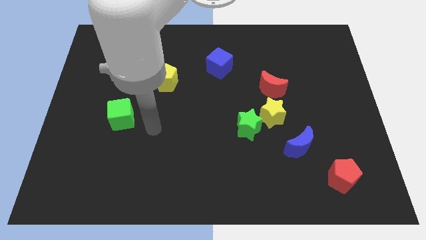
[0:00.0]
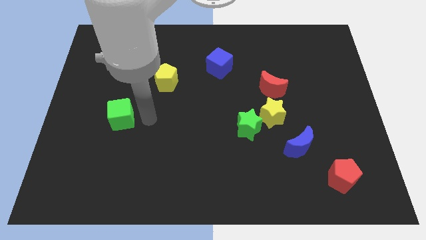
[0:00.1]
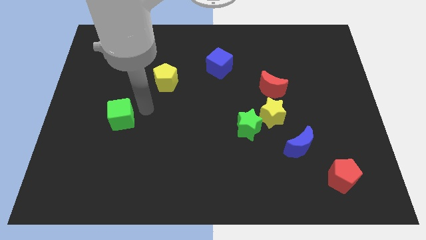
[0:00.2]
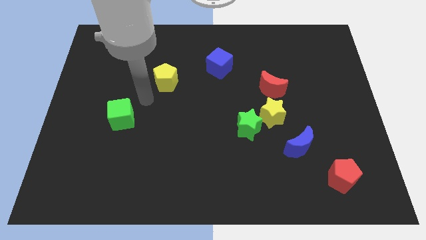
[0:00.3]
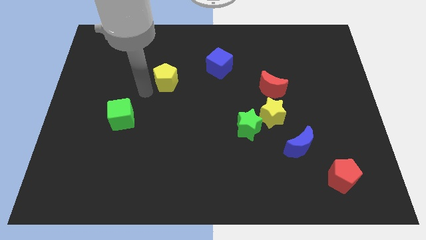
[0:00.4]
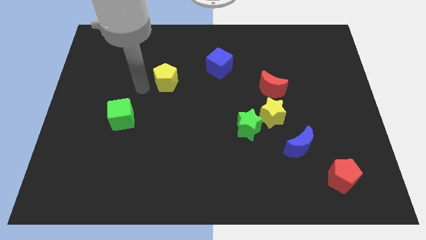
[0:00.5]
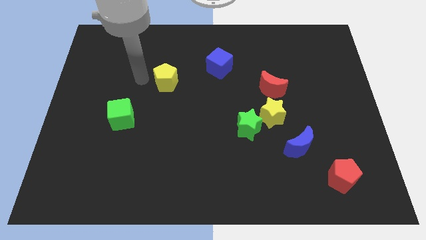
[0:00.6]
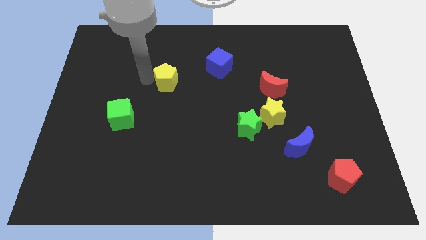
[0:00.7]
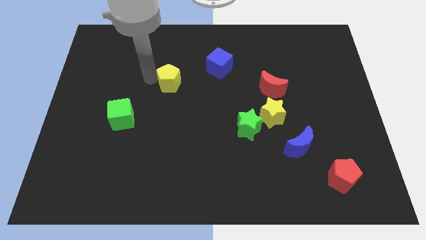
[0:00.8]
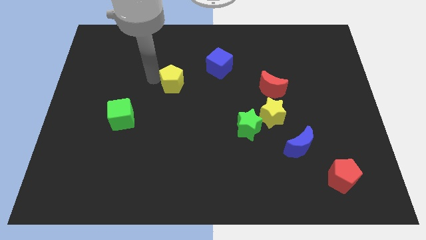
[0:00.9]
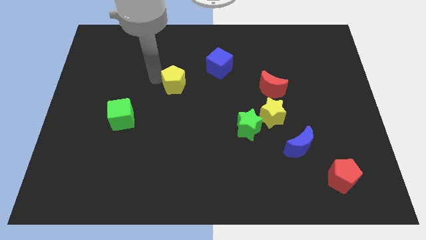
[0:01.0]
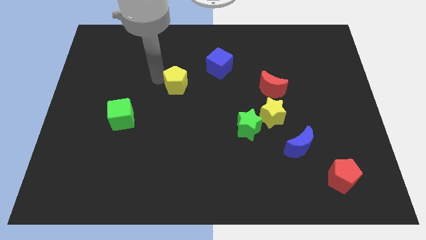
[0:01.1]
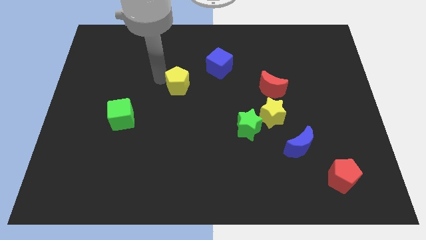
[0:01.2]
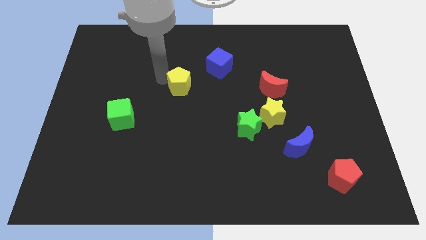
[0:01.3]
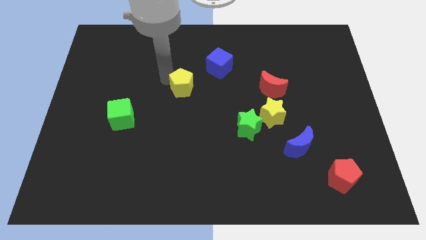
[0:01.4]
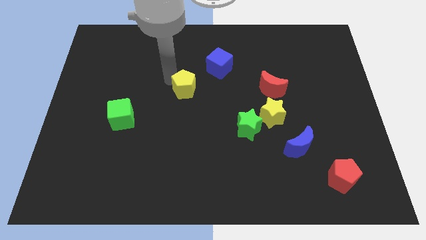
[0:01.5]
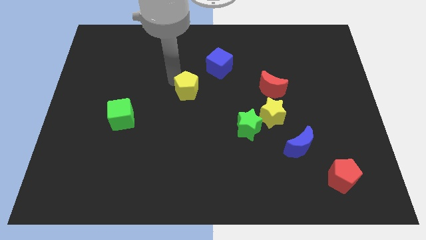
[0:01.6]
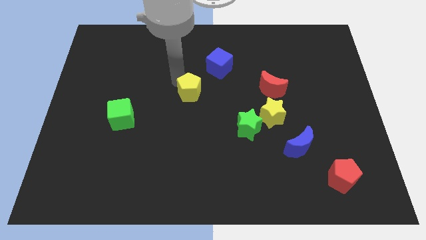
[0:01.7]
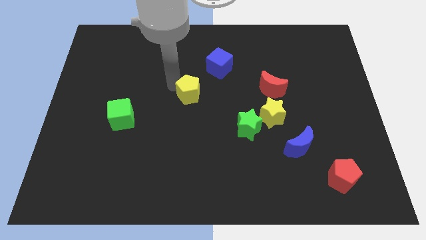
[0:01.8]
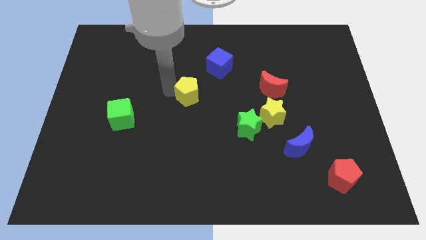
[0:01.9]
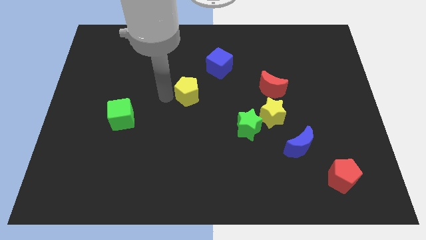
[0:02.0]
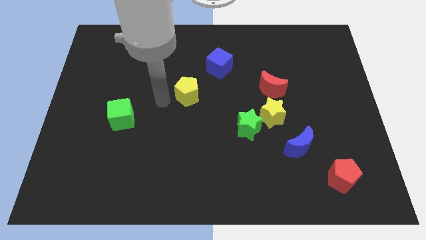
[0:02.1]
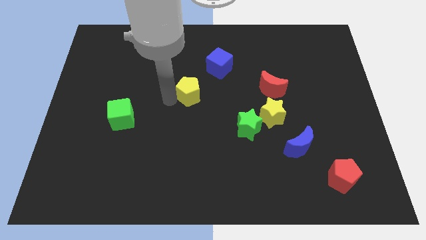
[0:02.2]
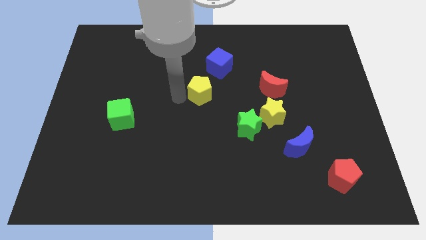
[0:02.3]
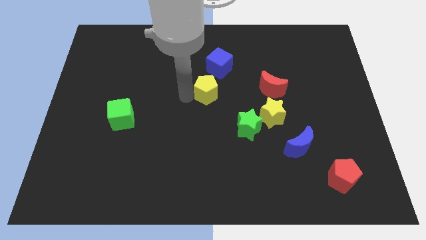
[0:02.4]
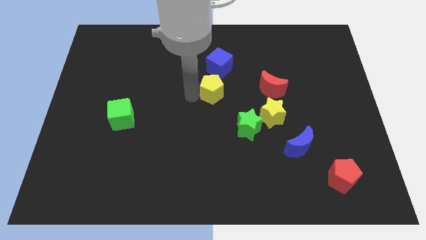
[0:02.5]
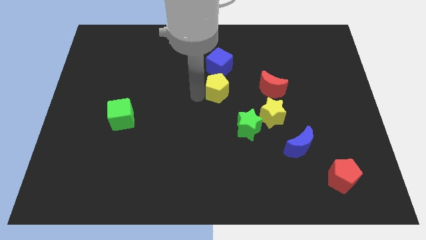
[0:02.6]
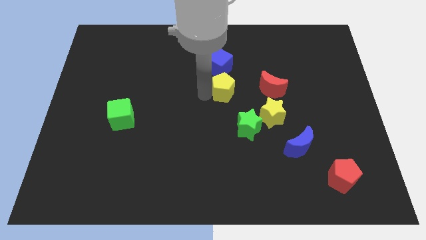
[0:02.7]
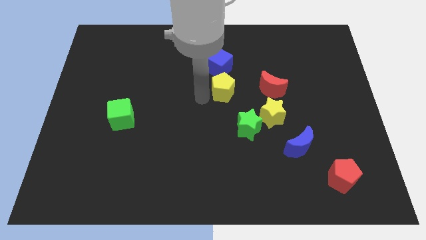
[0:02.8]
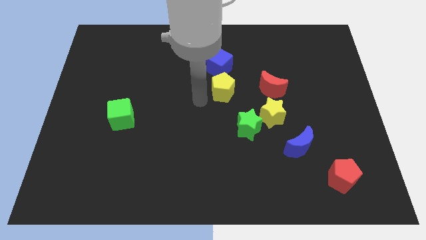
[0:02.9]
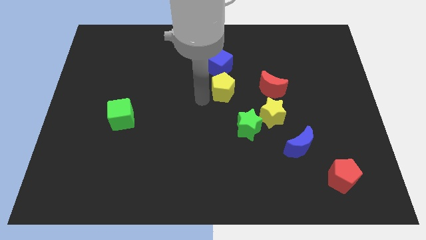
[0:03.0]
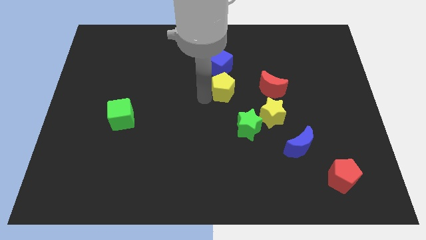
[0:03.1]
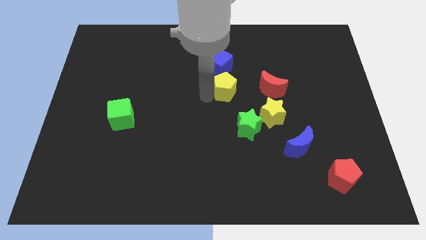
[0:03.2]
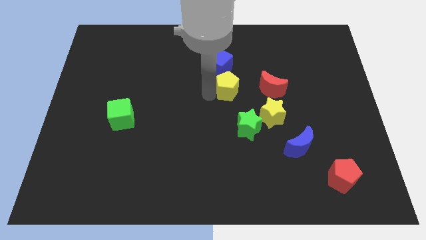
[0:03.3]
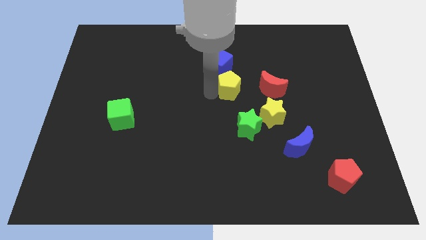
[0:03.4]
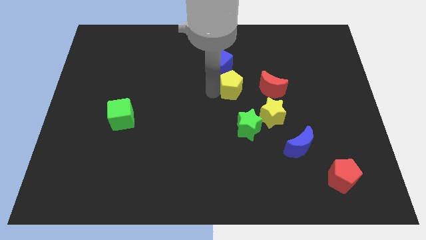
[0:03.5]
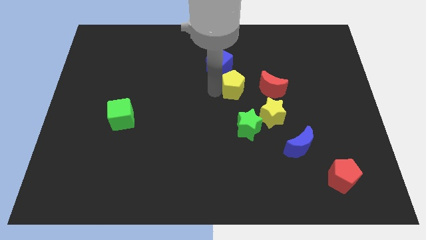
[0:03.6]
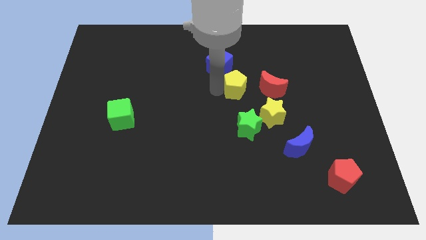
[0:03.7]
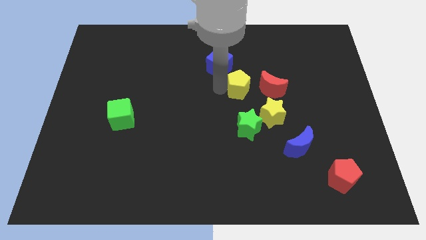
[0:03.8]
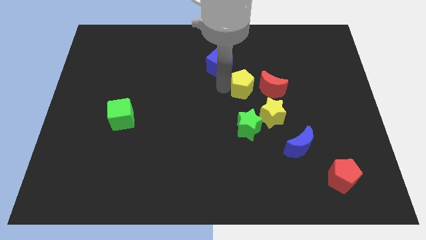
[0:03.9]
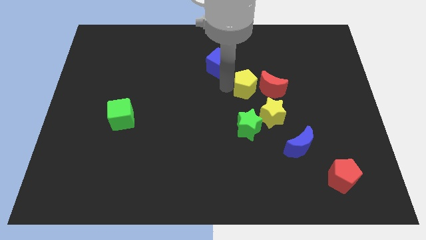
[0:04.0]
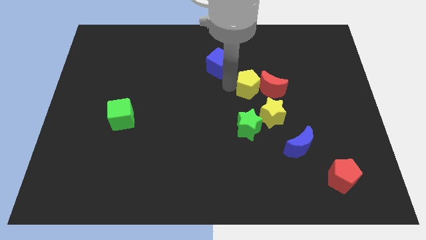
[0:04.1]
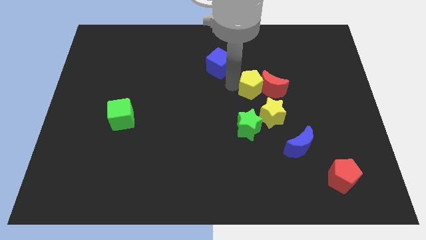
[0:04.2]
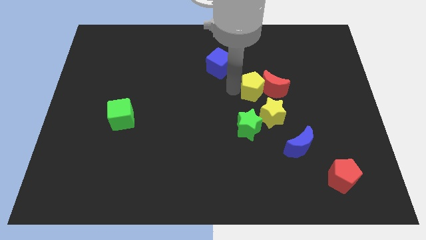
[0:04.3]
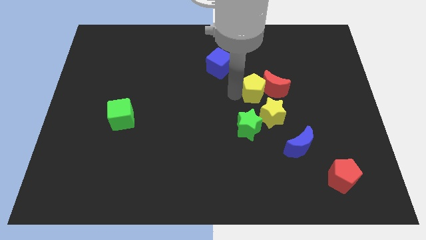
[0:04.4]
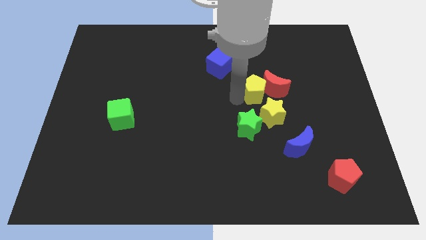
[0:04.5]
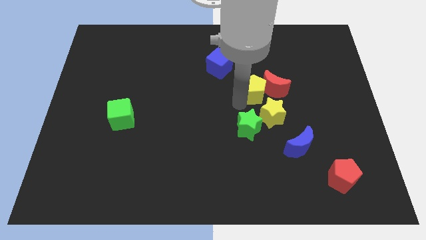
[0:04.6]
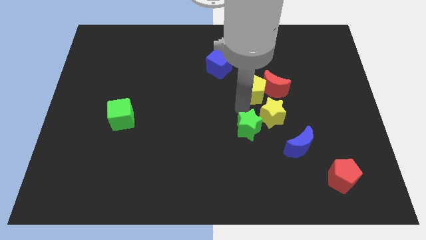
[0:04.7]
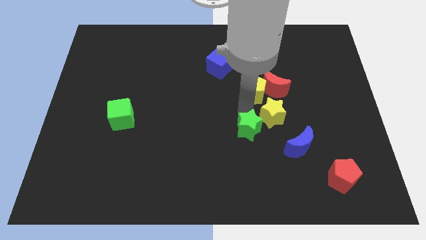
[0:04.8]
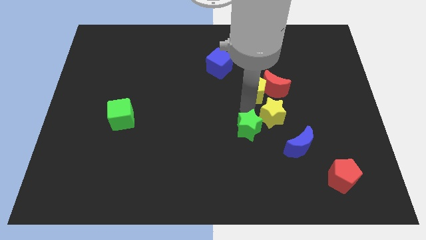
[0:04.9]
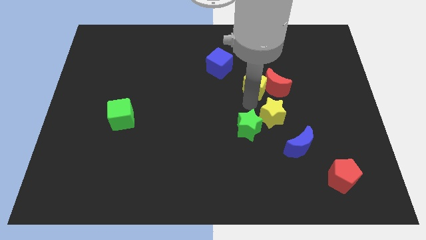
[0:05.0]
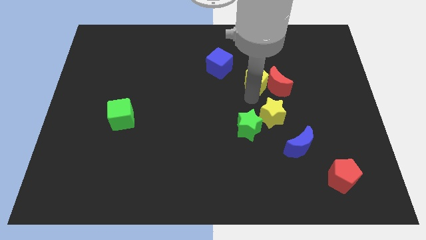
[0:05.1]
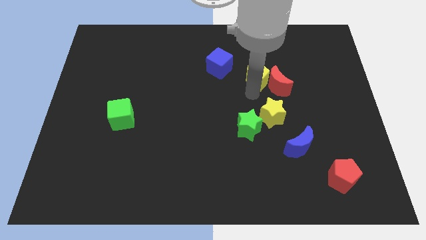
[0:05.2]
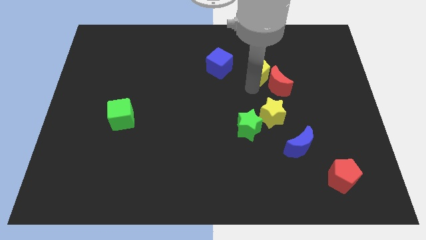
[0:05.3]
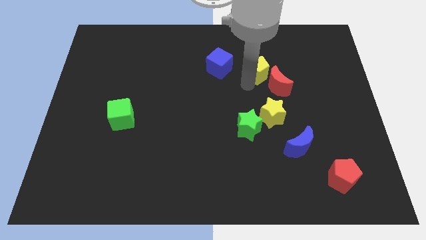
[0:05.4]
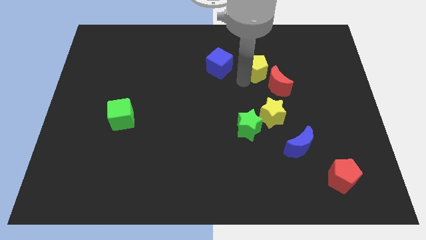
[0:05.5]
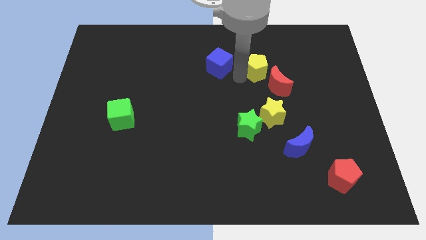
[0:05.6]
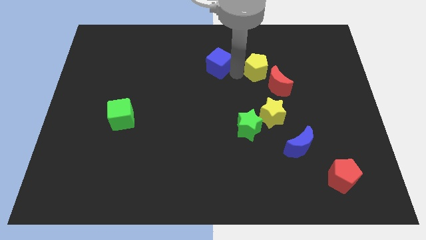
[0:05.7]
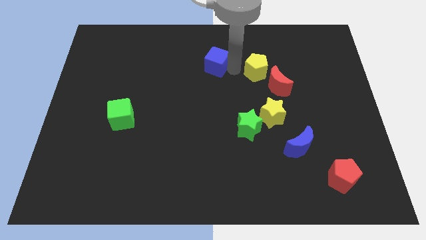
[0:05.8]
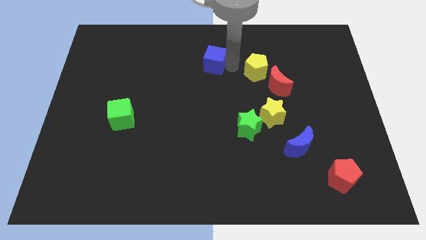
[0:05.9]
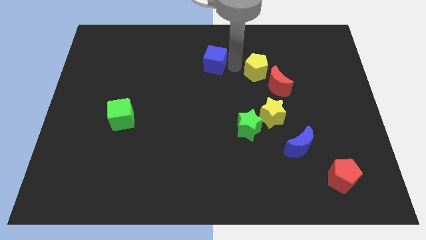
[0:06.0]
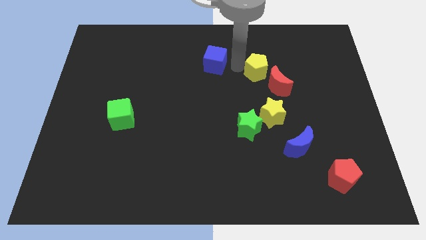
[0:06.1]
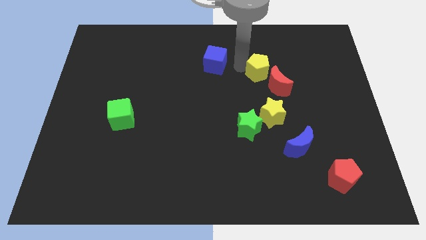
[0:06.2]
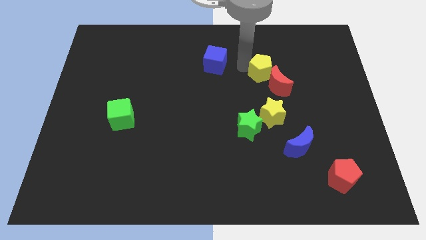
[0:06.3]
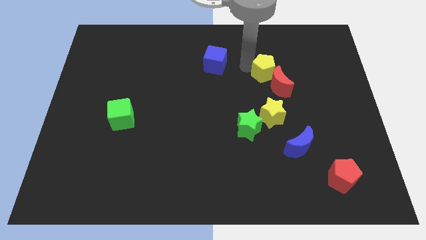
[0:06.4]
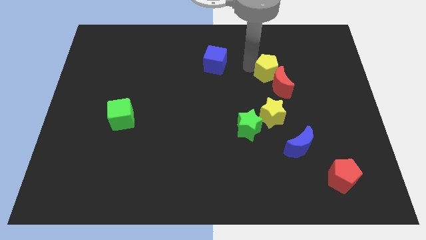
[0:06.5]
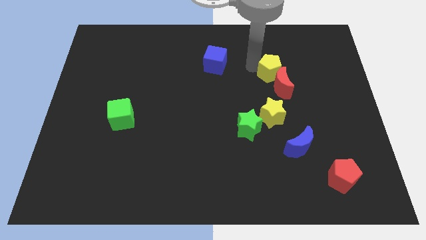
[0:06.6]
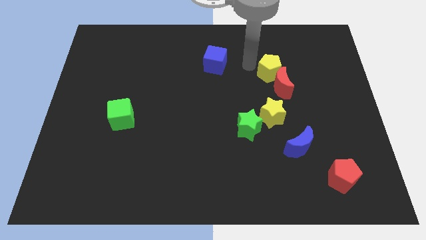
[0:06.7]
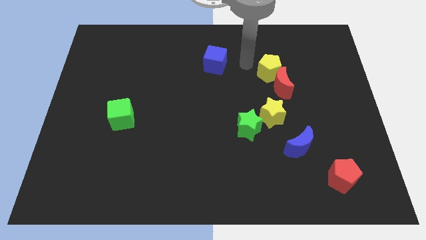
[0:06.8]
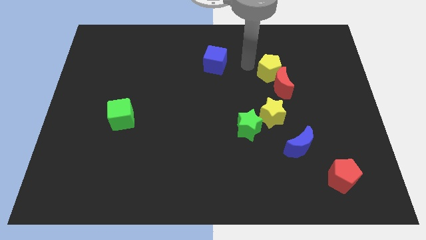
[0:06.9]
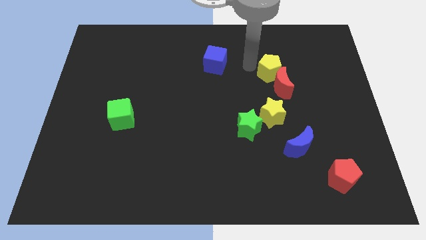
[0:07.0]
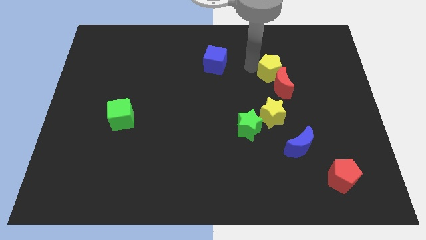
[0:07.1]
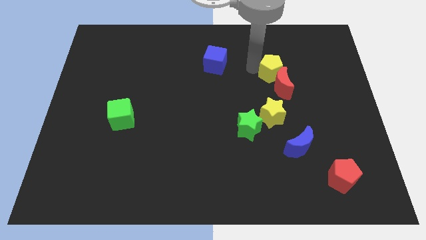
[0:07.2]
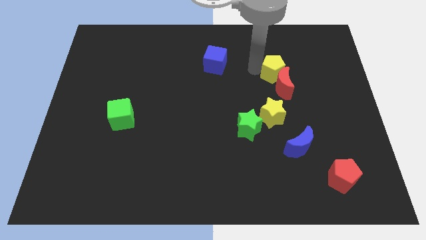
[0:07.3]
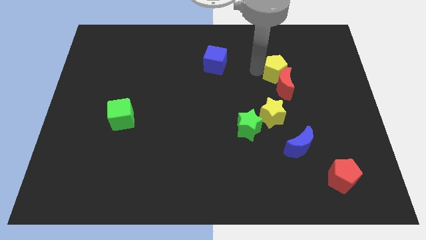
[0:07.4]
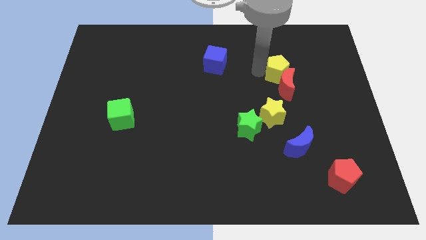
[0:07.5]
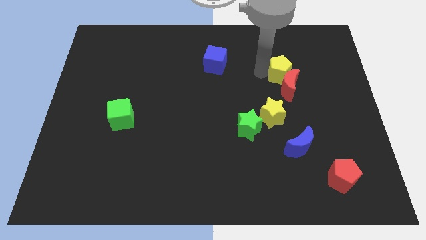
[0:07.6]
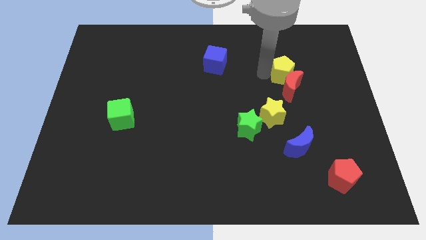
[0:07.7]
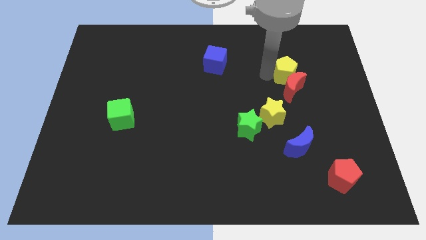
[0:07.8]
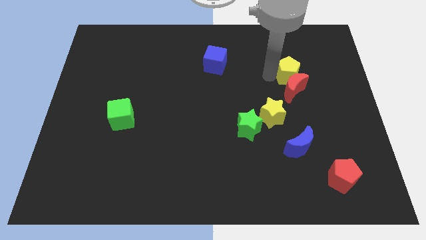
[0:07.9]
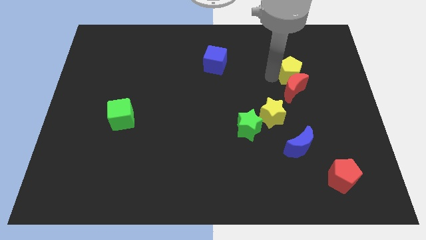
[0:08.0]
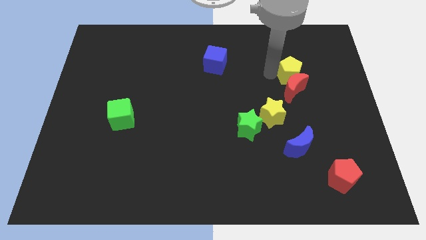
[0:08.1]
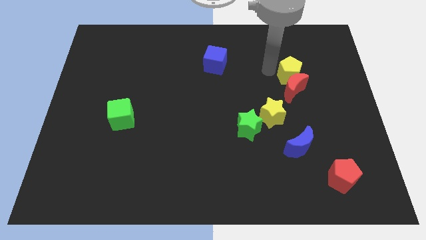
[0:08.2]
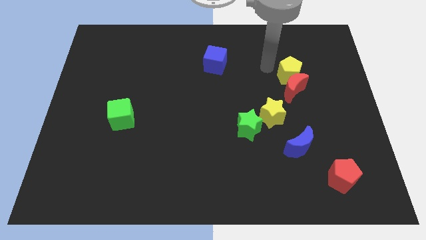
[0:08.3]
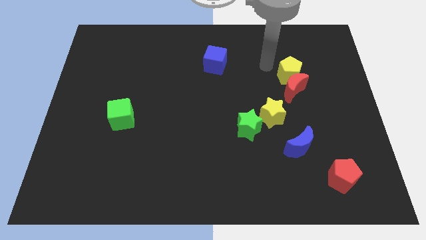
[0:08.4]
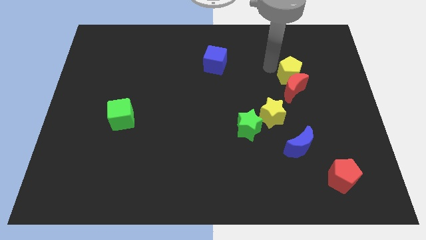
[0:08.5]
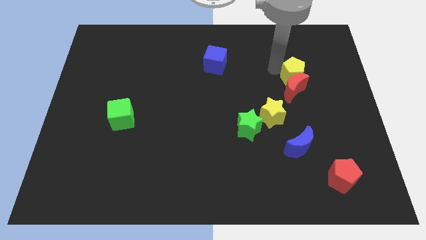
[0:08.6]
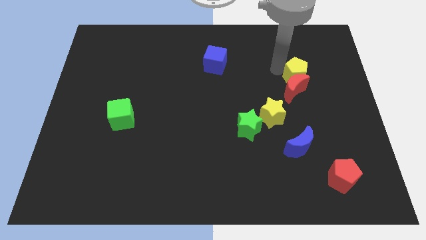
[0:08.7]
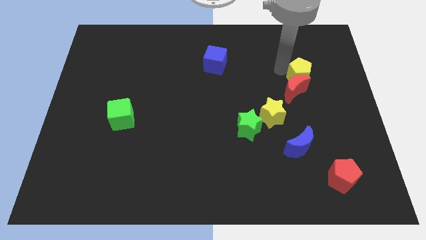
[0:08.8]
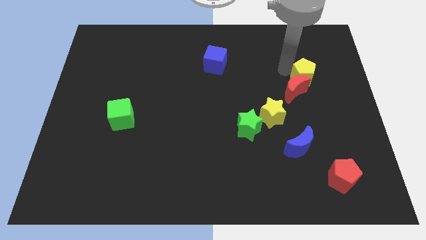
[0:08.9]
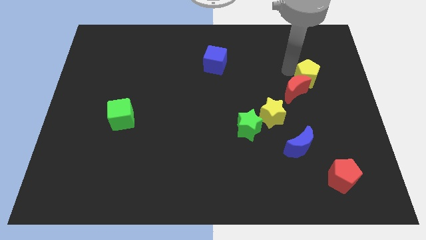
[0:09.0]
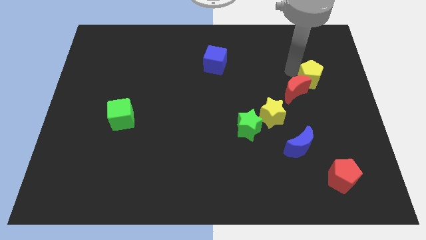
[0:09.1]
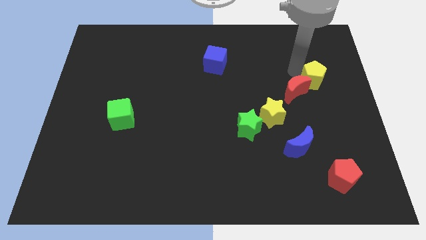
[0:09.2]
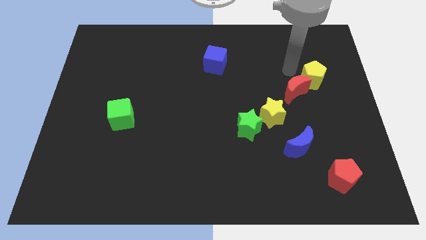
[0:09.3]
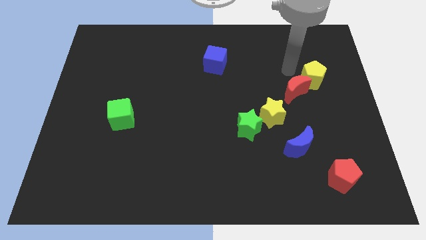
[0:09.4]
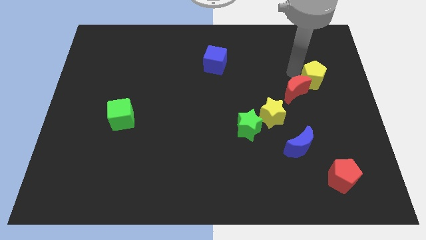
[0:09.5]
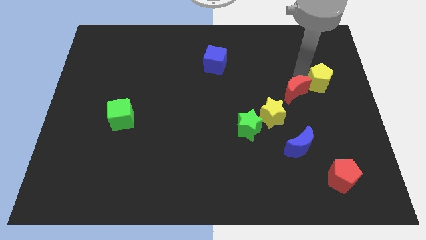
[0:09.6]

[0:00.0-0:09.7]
push the yellow pentagon to the right side of the board
